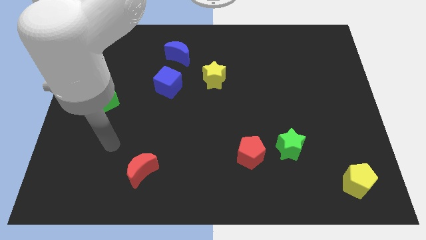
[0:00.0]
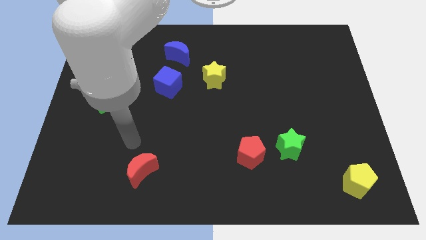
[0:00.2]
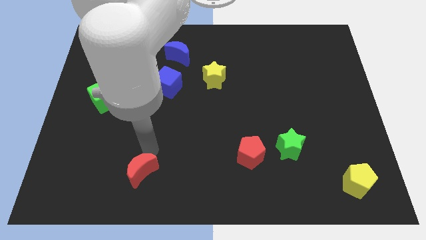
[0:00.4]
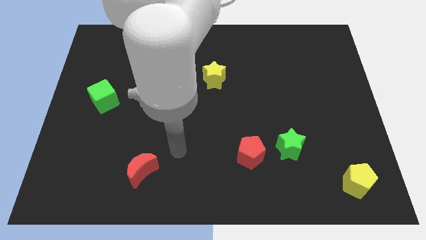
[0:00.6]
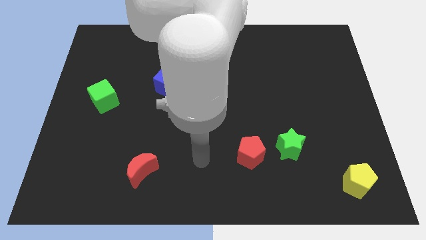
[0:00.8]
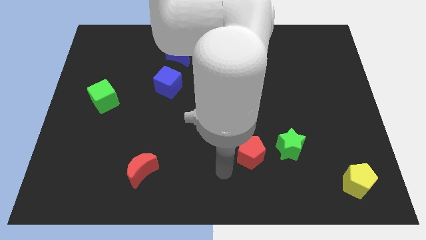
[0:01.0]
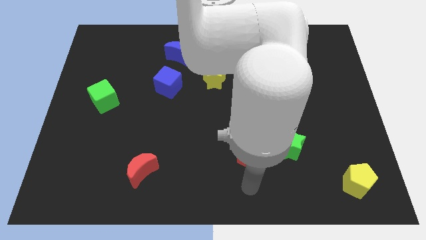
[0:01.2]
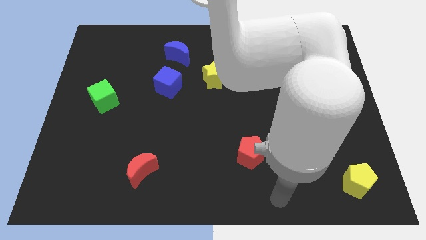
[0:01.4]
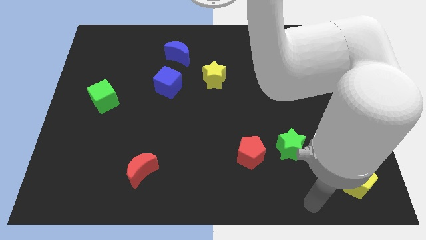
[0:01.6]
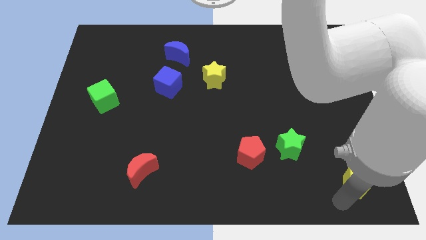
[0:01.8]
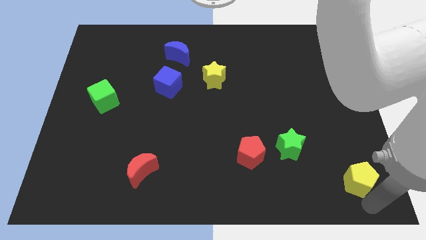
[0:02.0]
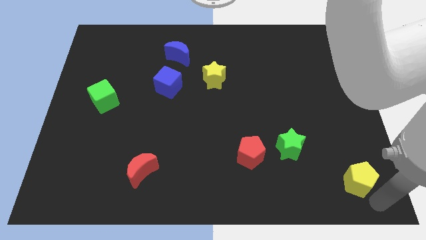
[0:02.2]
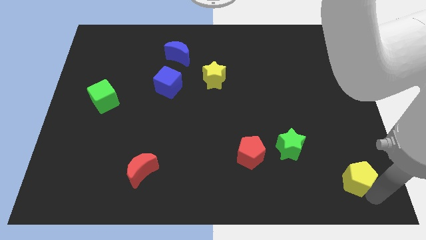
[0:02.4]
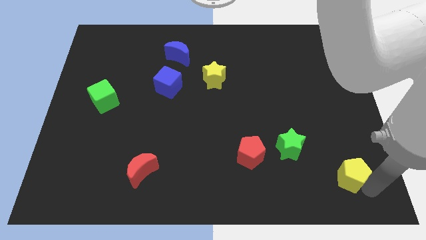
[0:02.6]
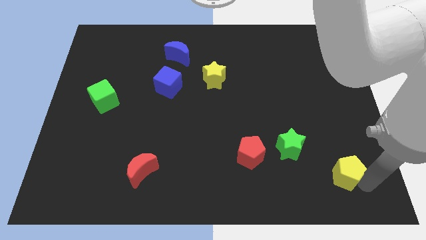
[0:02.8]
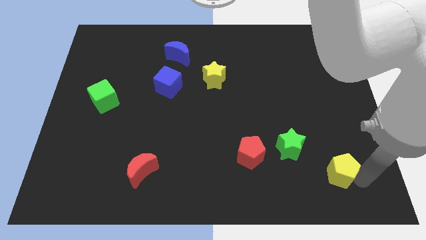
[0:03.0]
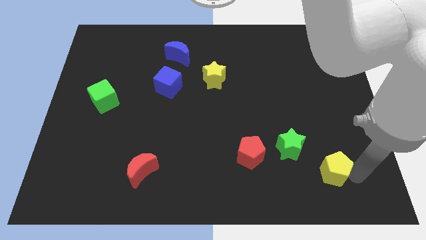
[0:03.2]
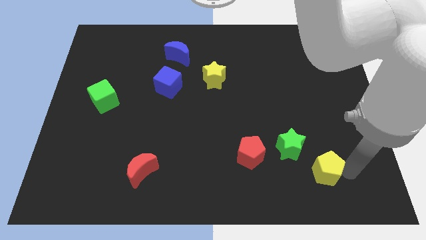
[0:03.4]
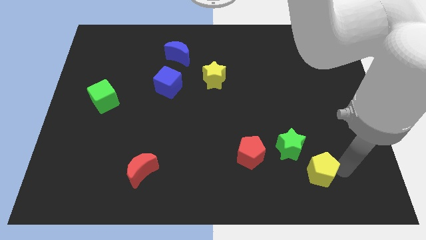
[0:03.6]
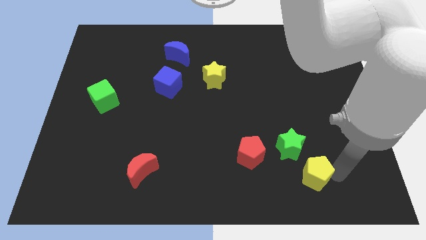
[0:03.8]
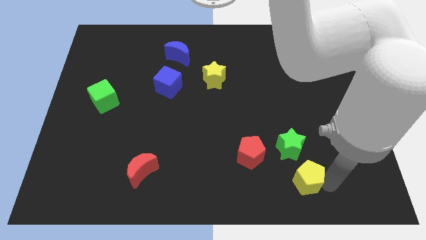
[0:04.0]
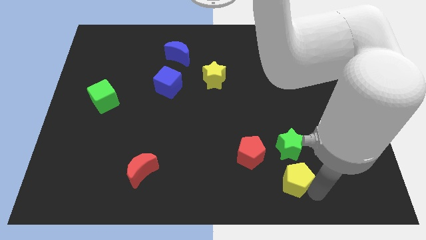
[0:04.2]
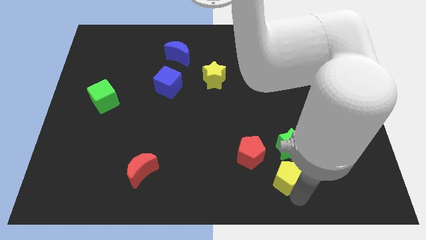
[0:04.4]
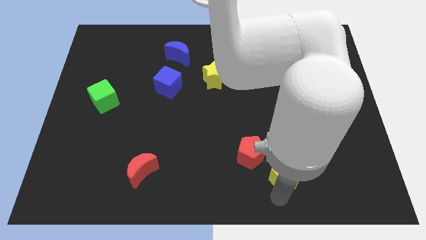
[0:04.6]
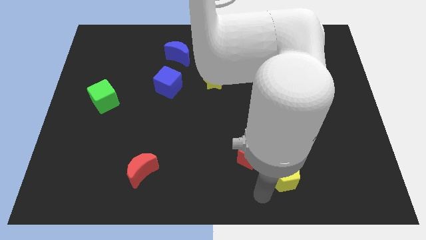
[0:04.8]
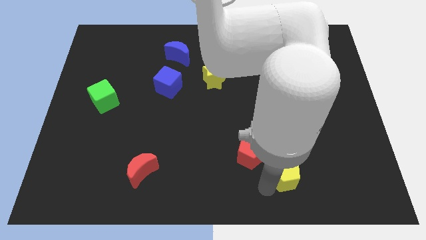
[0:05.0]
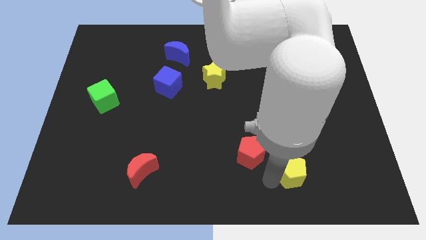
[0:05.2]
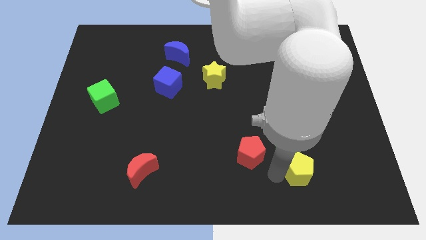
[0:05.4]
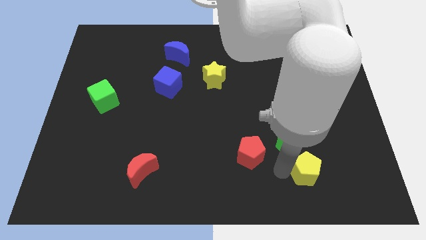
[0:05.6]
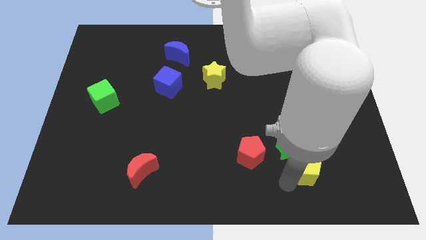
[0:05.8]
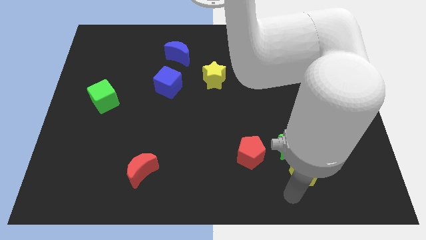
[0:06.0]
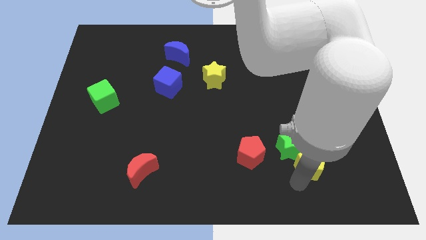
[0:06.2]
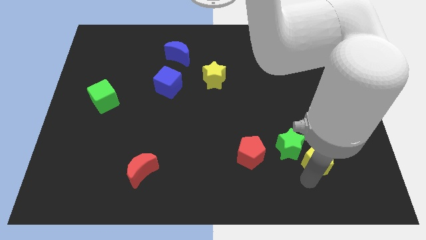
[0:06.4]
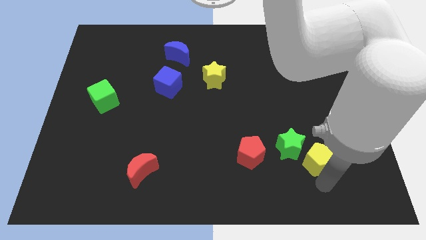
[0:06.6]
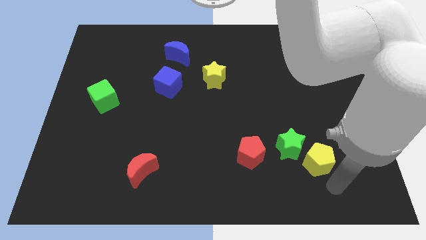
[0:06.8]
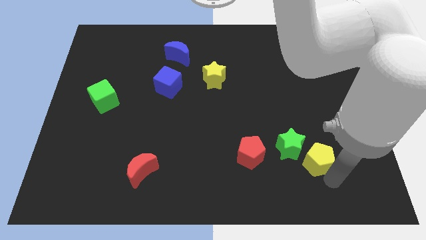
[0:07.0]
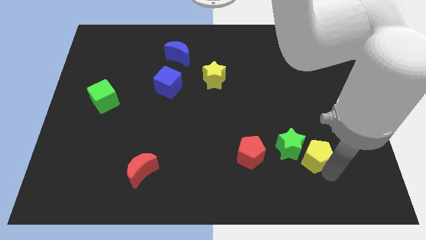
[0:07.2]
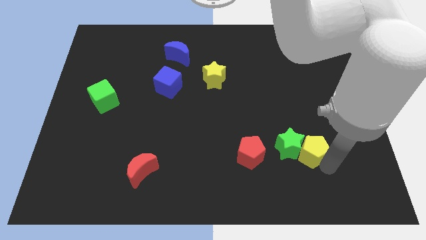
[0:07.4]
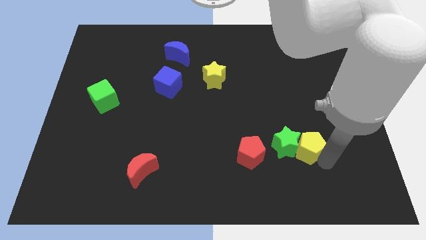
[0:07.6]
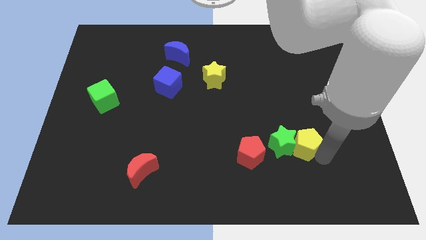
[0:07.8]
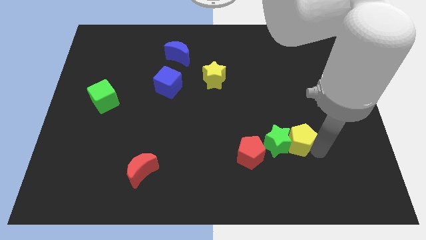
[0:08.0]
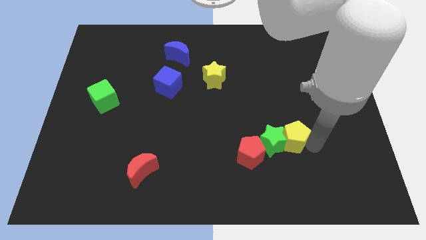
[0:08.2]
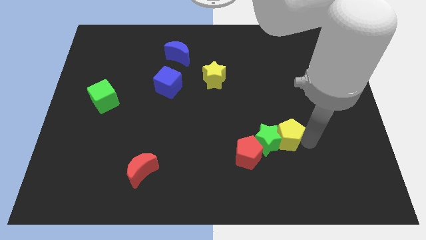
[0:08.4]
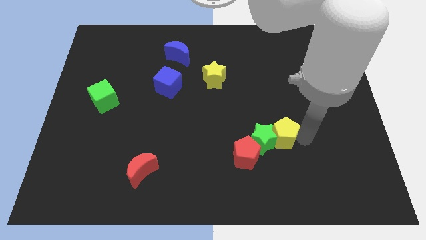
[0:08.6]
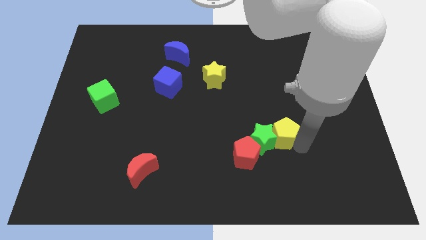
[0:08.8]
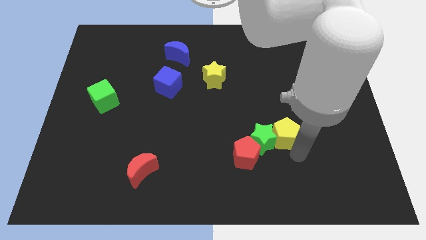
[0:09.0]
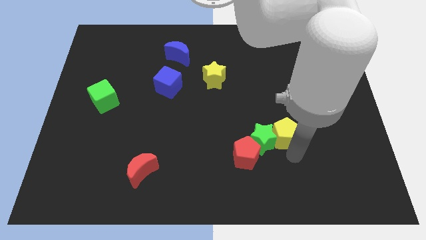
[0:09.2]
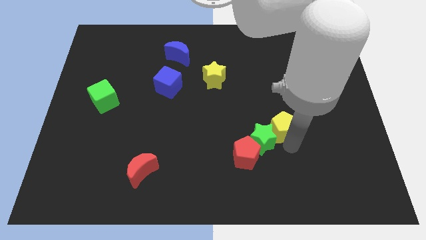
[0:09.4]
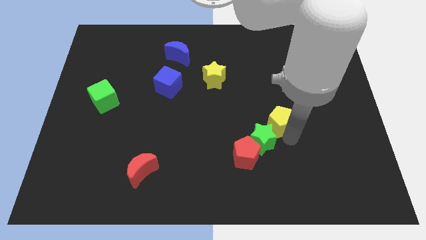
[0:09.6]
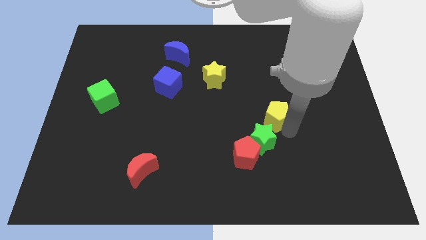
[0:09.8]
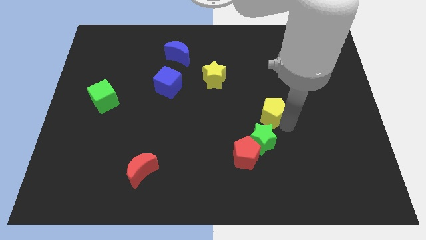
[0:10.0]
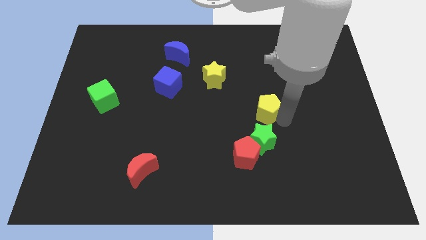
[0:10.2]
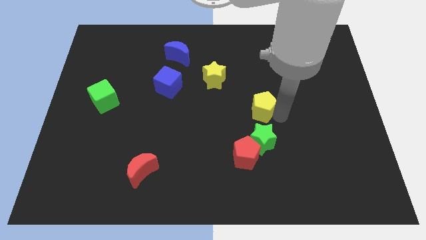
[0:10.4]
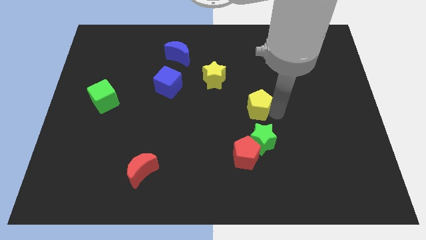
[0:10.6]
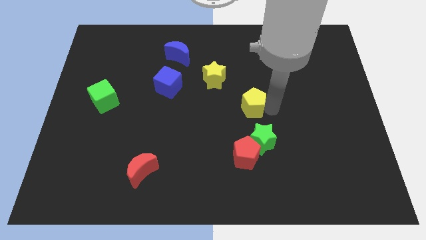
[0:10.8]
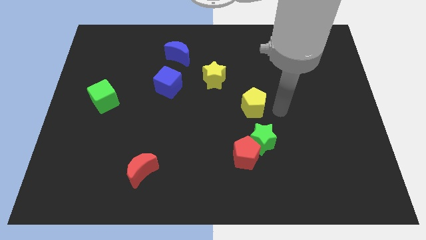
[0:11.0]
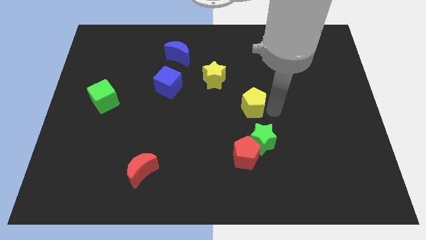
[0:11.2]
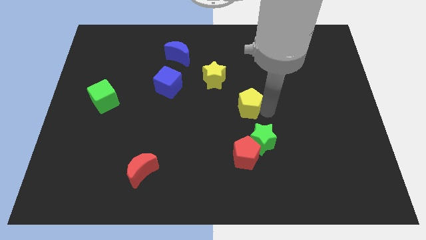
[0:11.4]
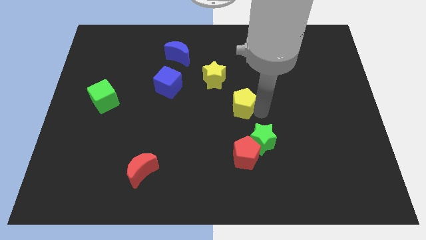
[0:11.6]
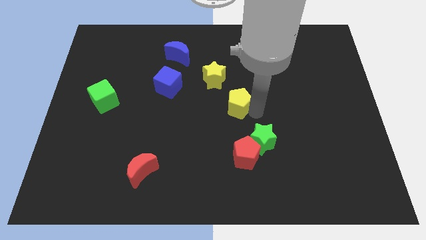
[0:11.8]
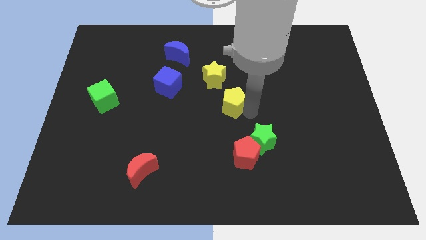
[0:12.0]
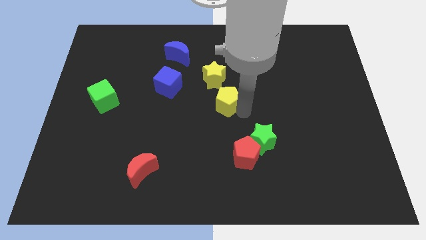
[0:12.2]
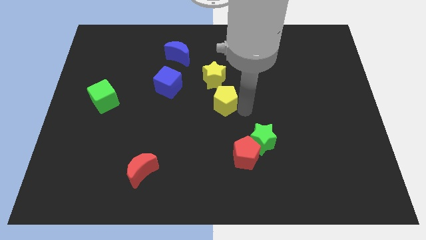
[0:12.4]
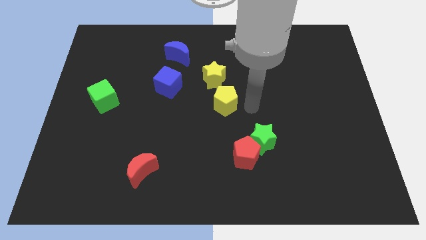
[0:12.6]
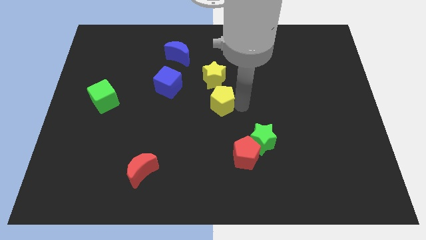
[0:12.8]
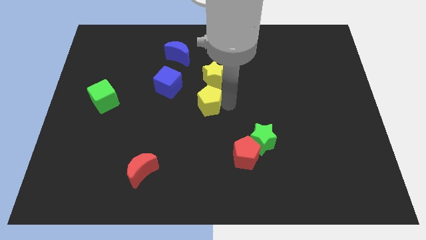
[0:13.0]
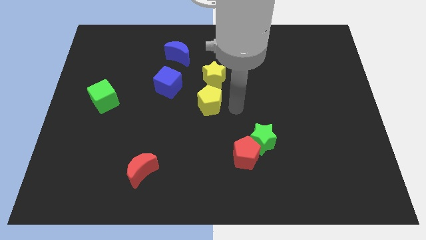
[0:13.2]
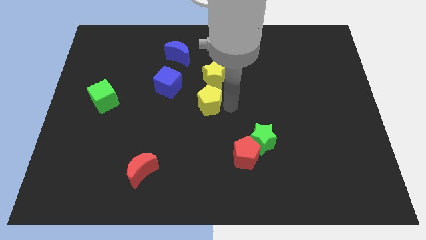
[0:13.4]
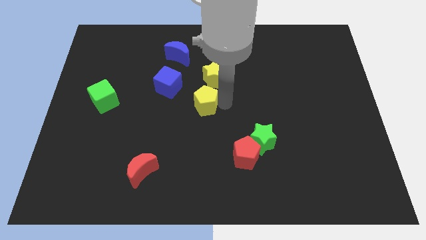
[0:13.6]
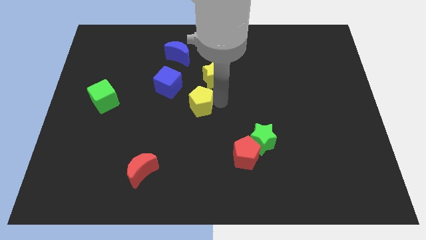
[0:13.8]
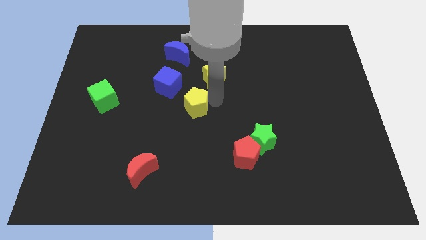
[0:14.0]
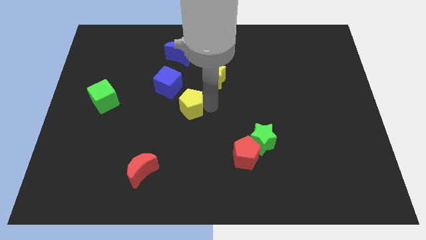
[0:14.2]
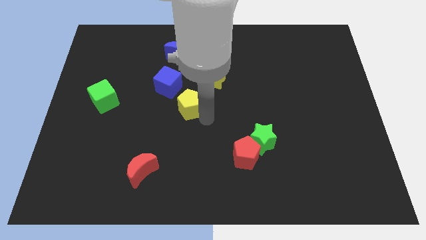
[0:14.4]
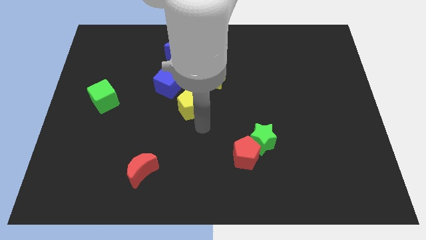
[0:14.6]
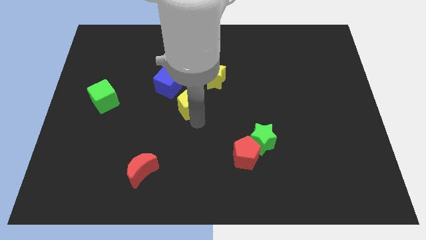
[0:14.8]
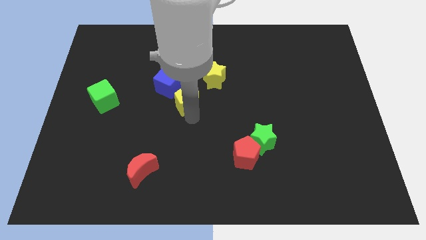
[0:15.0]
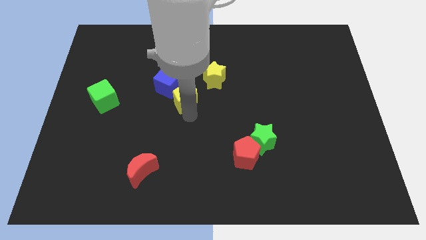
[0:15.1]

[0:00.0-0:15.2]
move the yellow pentagon below the blue moon
